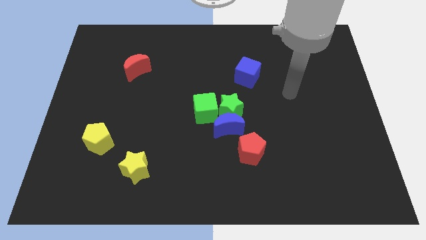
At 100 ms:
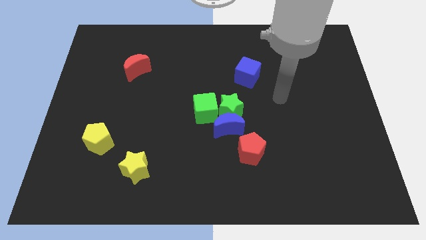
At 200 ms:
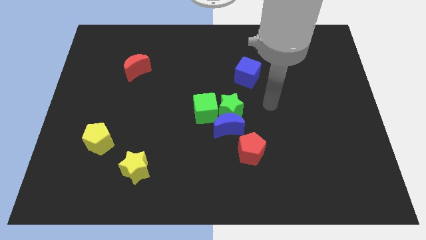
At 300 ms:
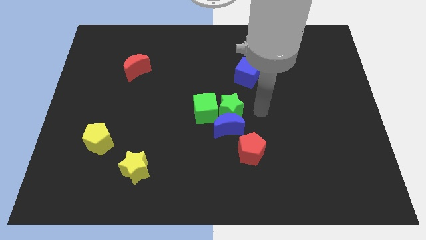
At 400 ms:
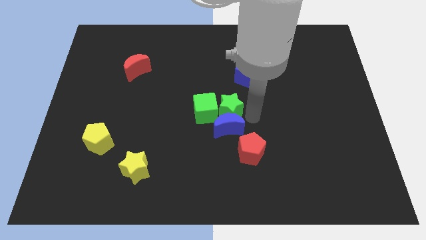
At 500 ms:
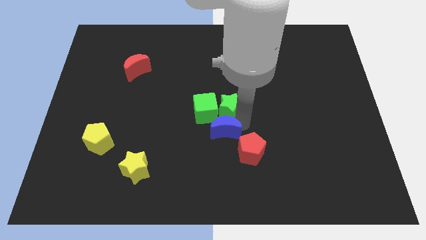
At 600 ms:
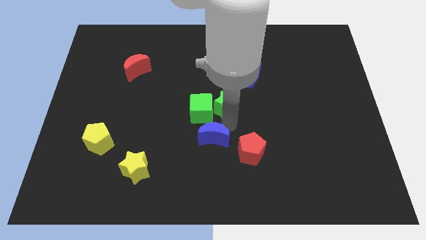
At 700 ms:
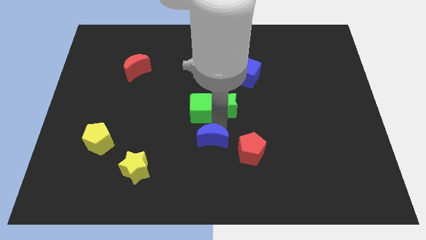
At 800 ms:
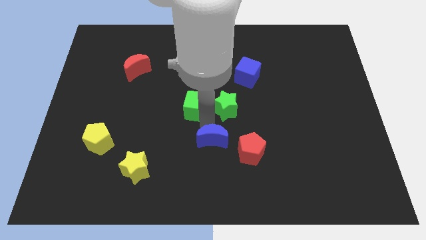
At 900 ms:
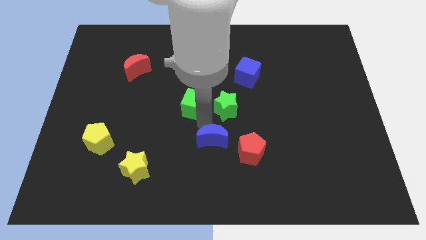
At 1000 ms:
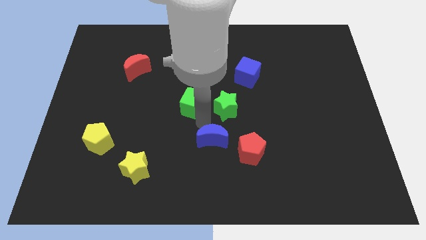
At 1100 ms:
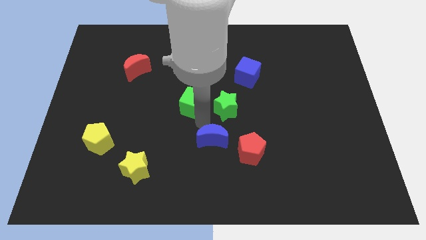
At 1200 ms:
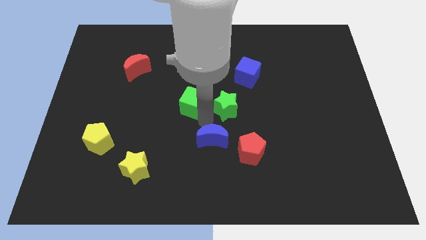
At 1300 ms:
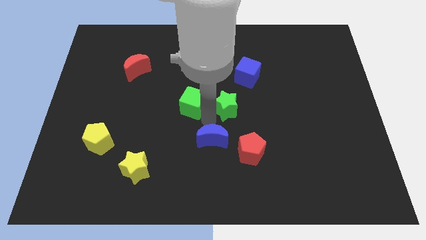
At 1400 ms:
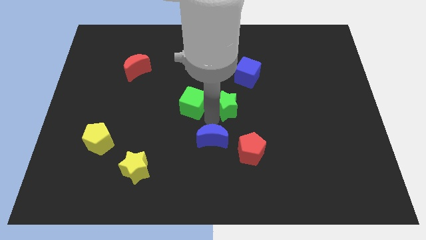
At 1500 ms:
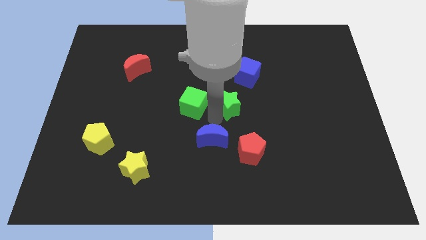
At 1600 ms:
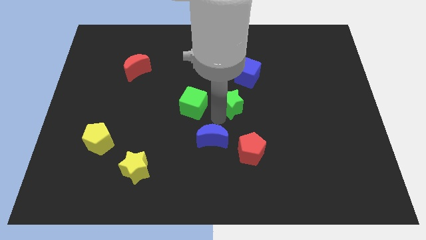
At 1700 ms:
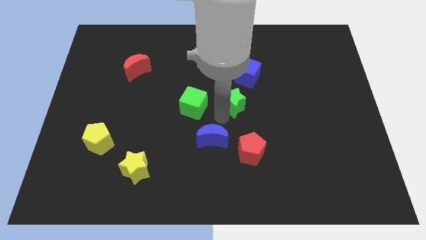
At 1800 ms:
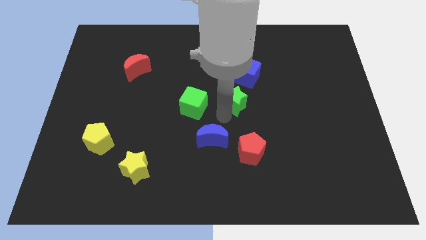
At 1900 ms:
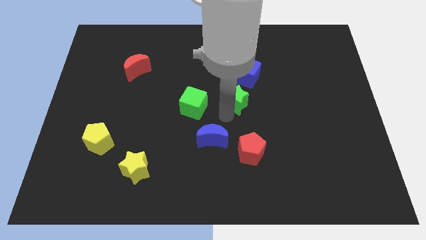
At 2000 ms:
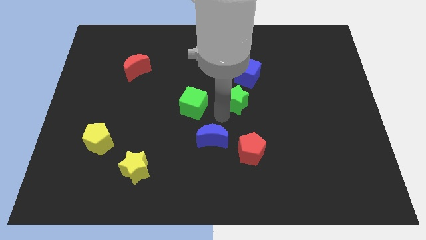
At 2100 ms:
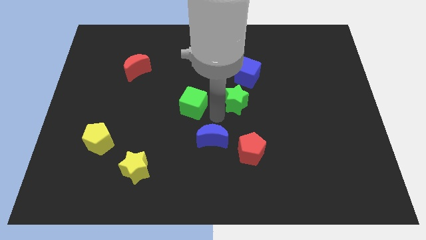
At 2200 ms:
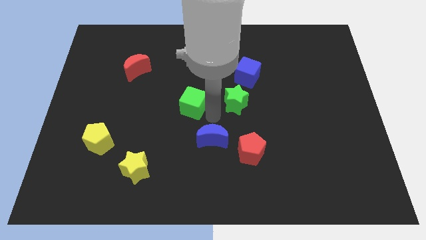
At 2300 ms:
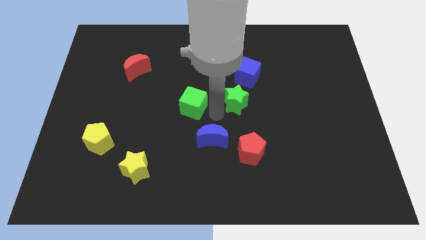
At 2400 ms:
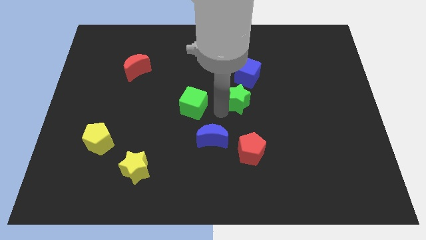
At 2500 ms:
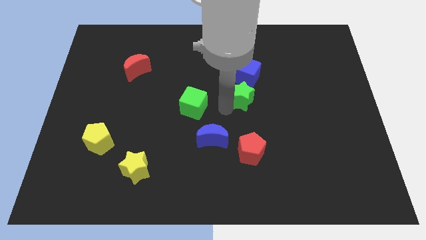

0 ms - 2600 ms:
move the green star away from the blue moon and green cube

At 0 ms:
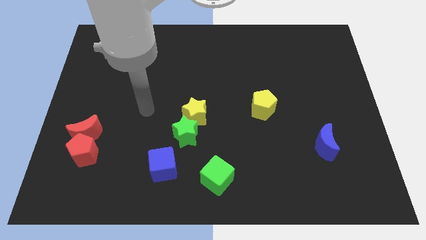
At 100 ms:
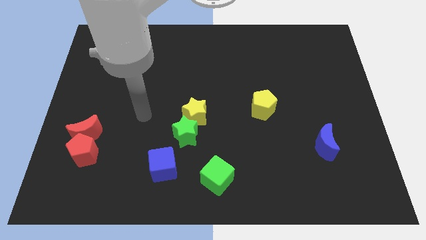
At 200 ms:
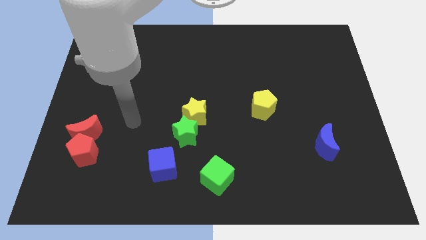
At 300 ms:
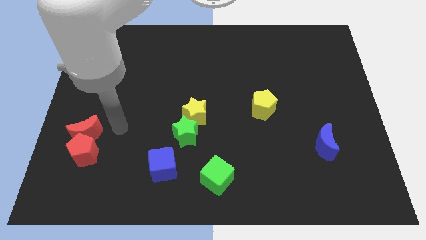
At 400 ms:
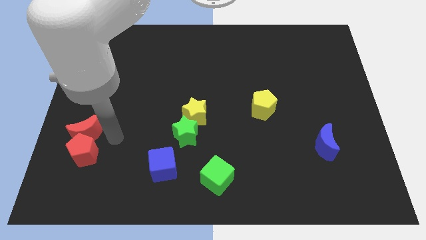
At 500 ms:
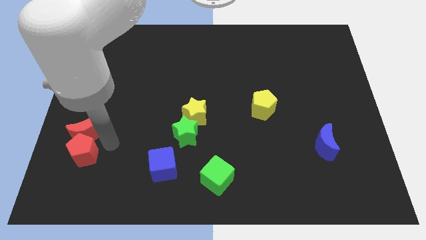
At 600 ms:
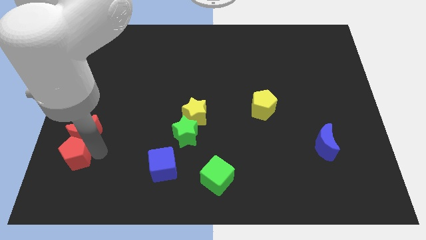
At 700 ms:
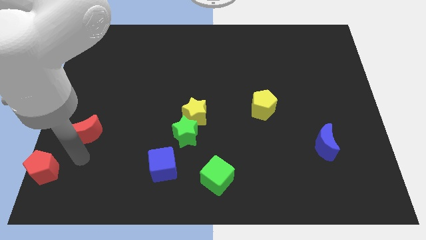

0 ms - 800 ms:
separate the red moon from the red pentagon

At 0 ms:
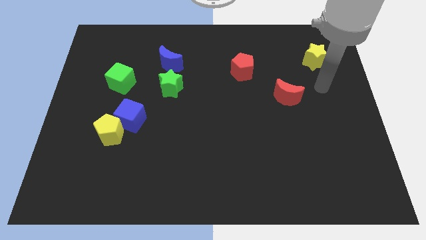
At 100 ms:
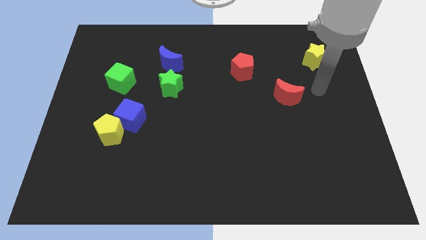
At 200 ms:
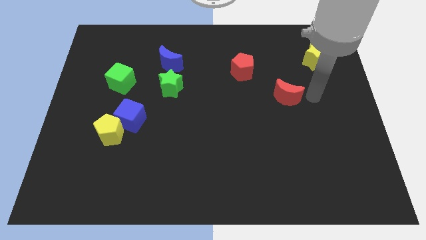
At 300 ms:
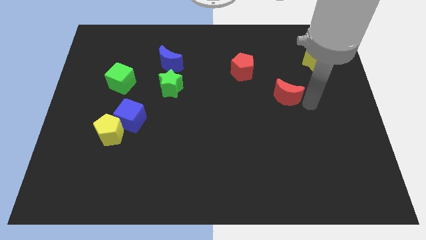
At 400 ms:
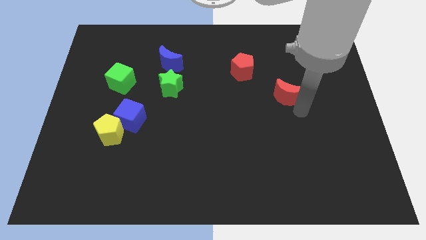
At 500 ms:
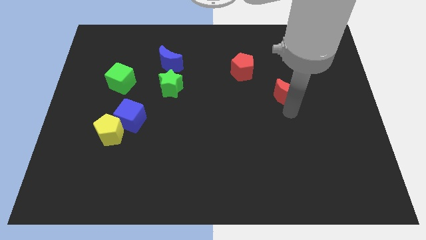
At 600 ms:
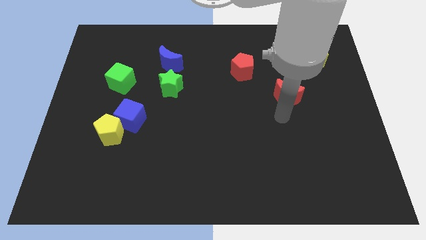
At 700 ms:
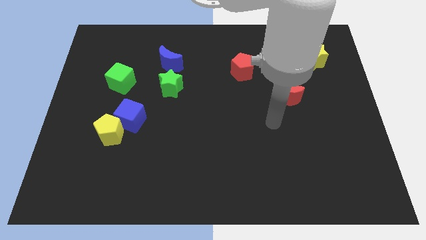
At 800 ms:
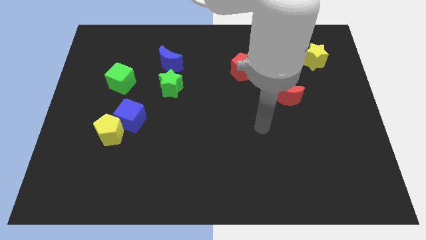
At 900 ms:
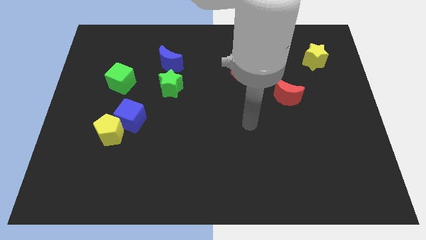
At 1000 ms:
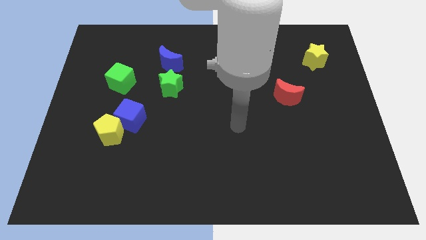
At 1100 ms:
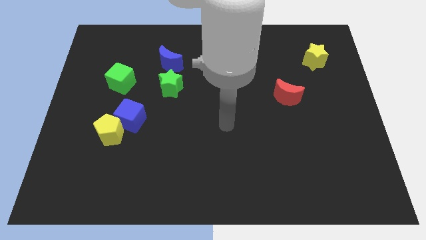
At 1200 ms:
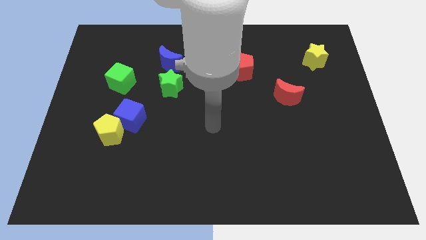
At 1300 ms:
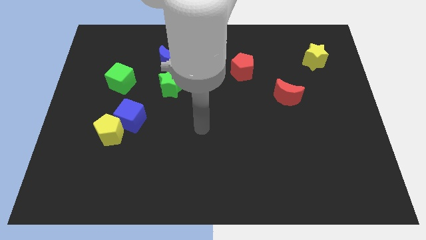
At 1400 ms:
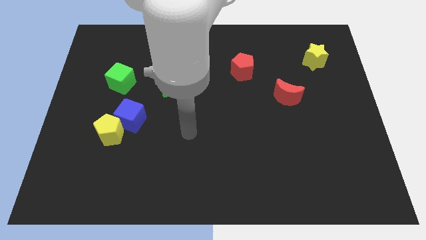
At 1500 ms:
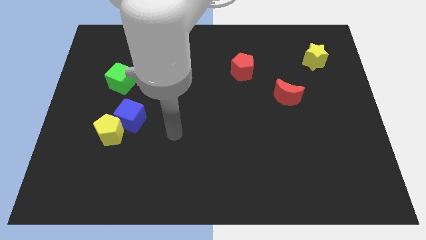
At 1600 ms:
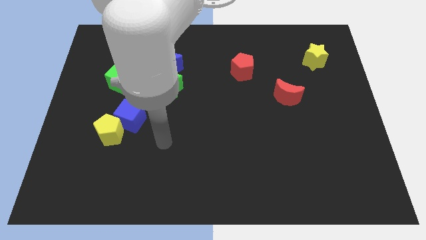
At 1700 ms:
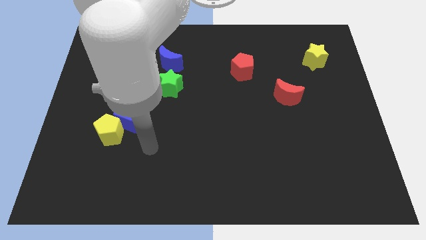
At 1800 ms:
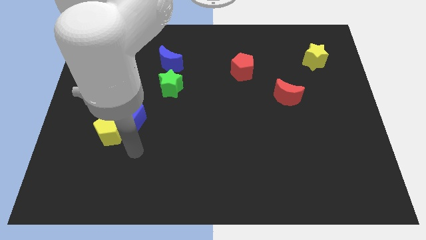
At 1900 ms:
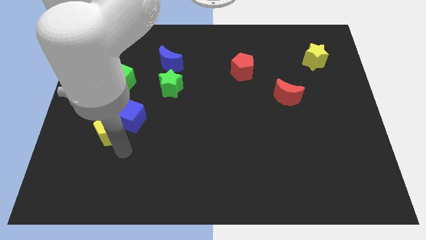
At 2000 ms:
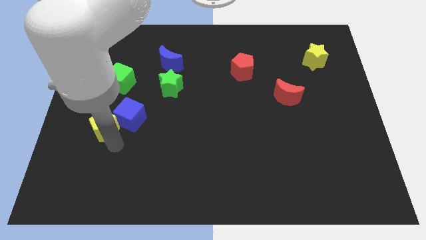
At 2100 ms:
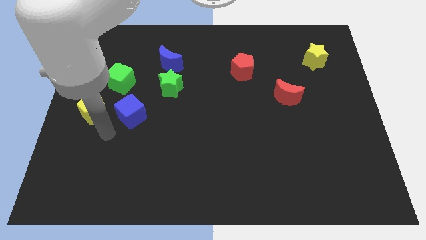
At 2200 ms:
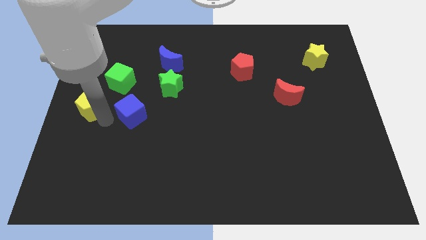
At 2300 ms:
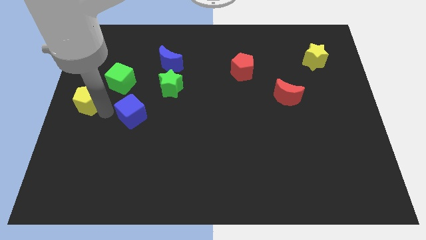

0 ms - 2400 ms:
separate the blue cube from the yellow pentagon

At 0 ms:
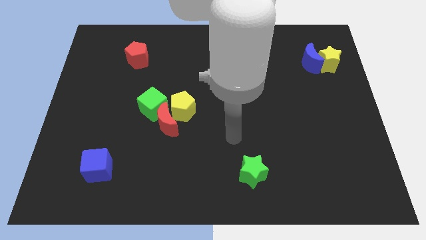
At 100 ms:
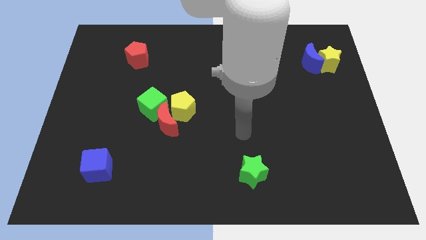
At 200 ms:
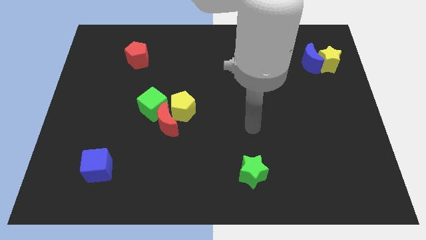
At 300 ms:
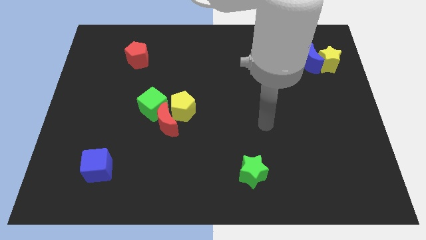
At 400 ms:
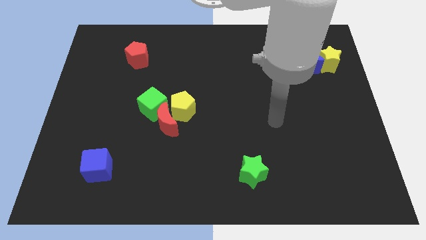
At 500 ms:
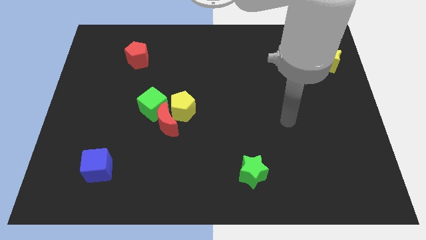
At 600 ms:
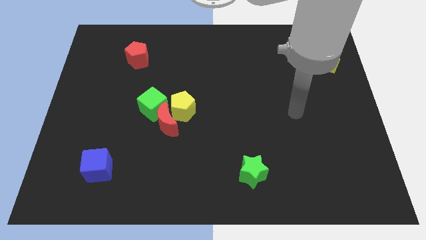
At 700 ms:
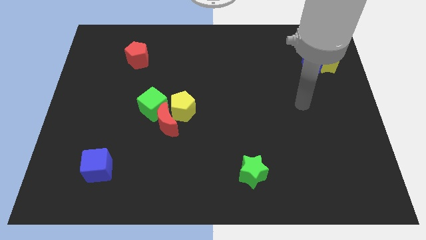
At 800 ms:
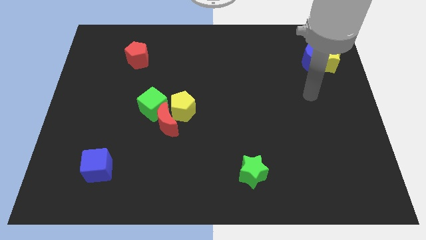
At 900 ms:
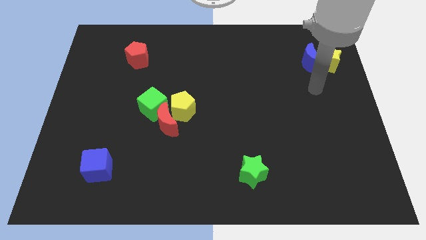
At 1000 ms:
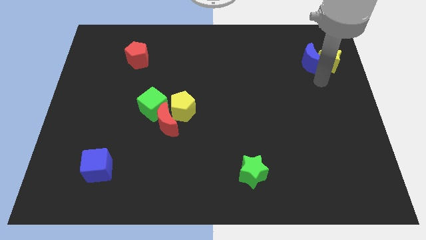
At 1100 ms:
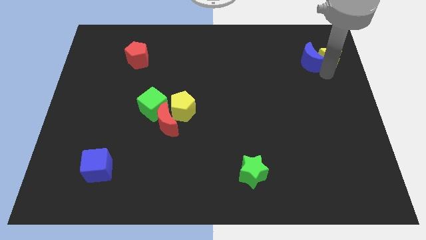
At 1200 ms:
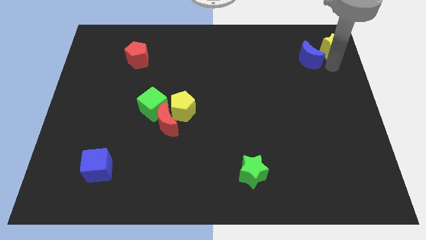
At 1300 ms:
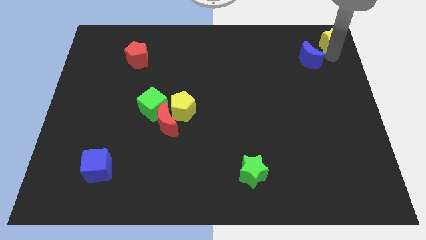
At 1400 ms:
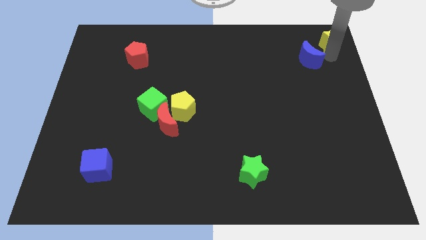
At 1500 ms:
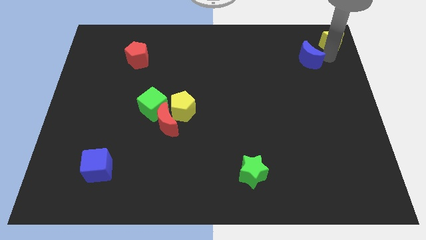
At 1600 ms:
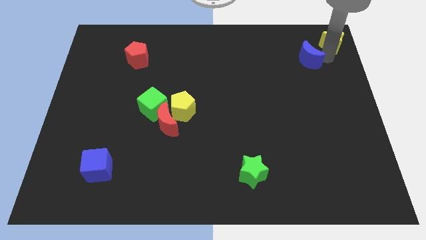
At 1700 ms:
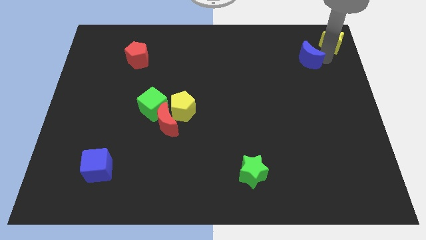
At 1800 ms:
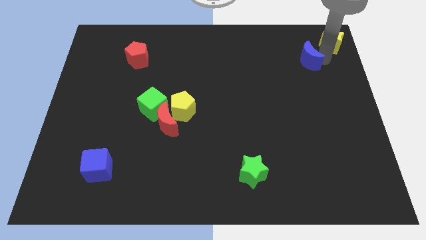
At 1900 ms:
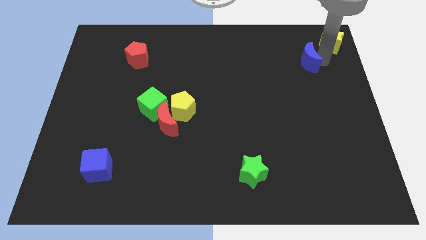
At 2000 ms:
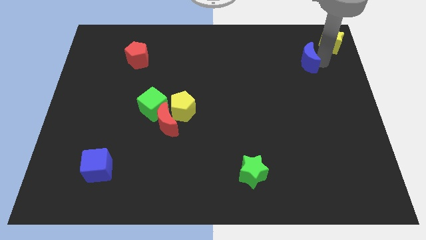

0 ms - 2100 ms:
pull the blue moon apart from the yellow star

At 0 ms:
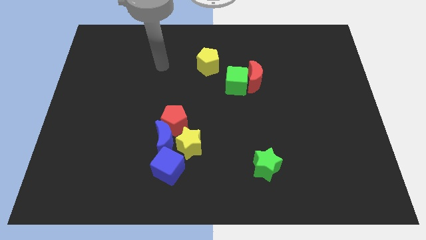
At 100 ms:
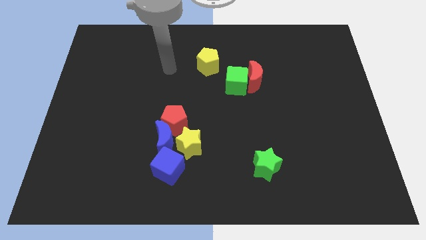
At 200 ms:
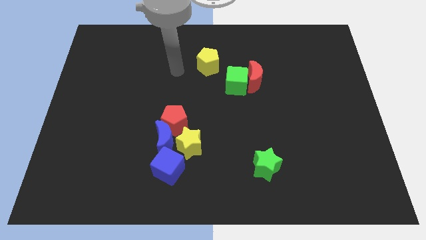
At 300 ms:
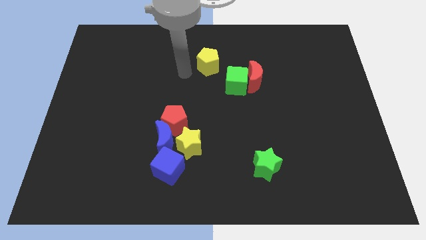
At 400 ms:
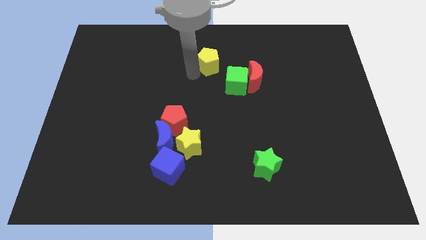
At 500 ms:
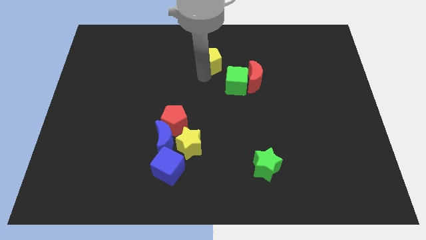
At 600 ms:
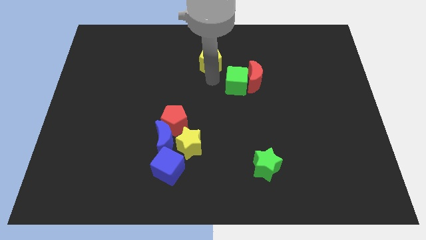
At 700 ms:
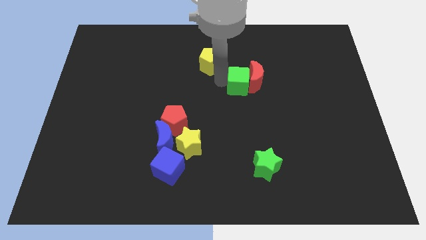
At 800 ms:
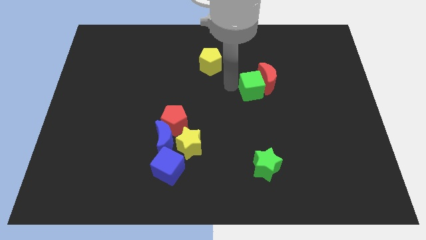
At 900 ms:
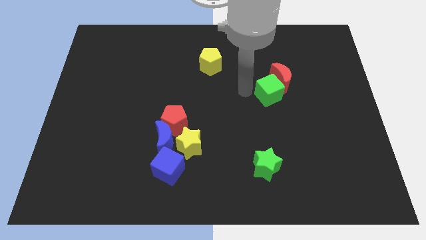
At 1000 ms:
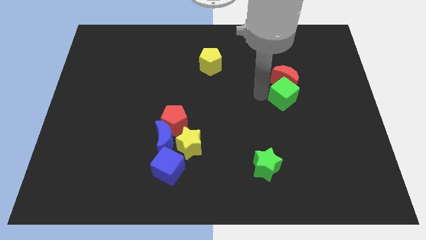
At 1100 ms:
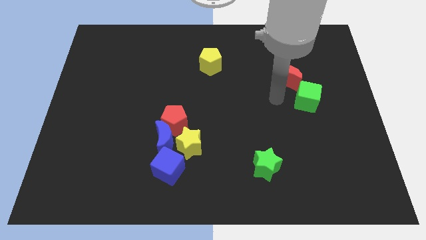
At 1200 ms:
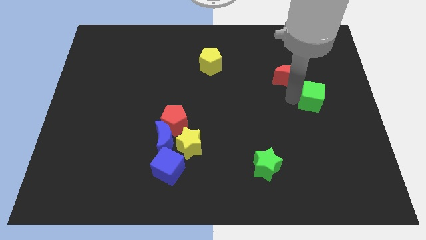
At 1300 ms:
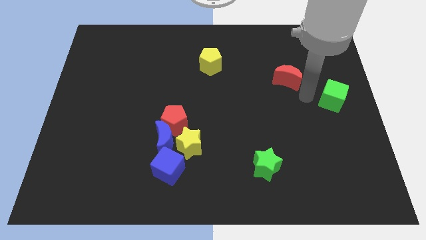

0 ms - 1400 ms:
separate the red moon from the green cube
